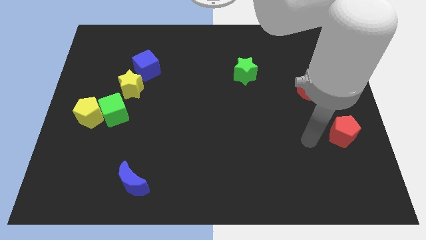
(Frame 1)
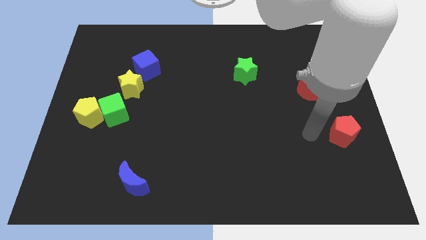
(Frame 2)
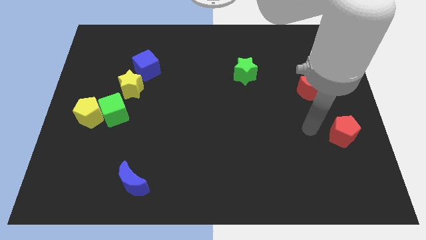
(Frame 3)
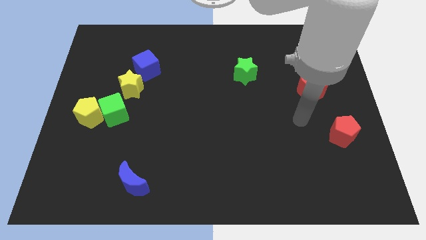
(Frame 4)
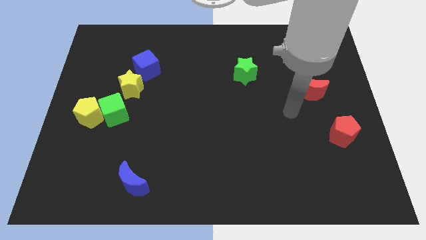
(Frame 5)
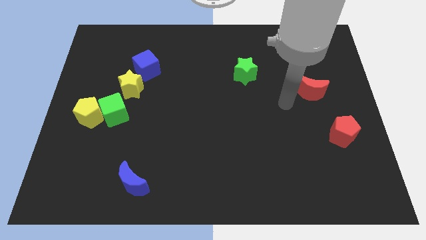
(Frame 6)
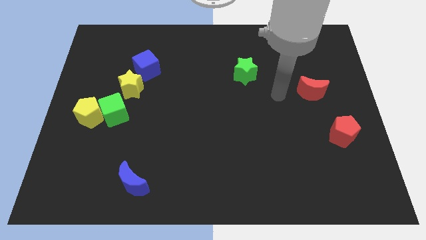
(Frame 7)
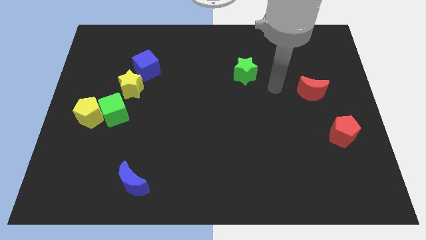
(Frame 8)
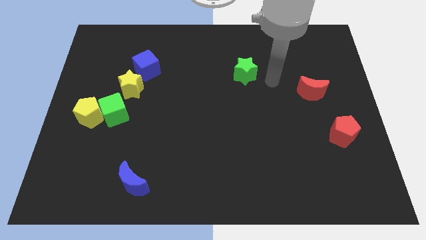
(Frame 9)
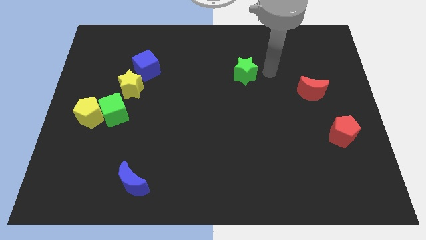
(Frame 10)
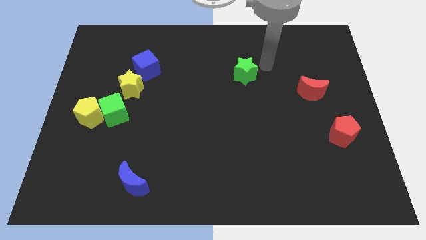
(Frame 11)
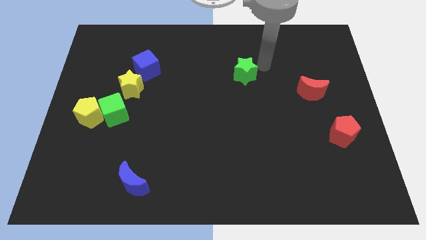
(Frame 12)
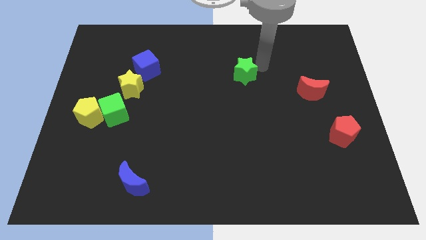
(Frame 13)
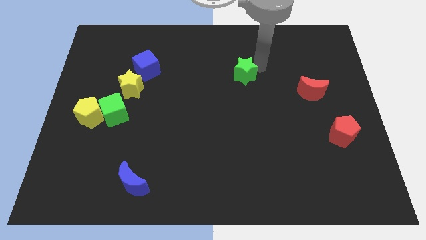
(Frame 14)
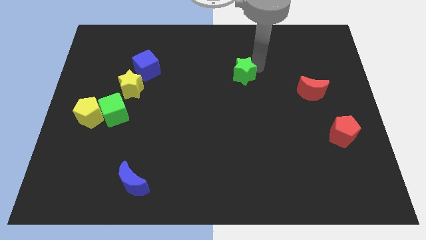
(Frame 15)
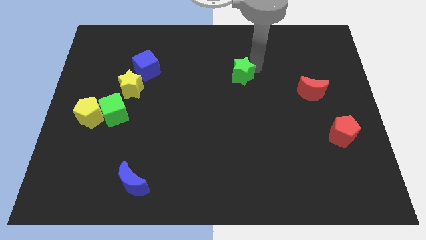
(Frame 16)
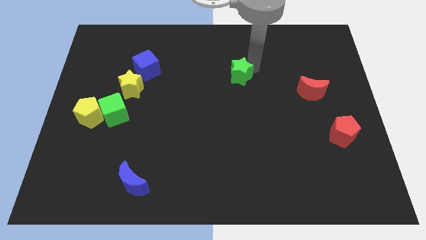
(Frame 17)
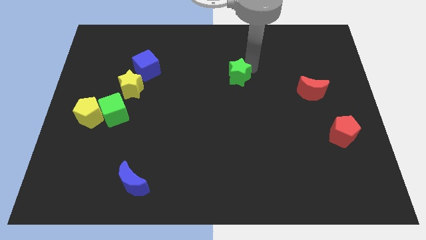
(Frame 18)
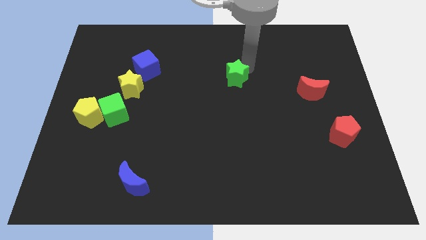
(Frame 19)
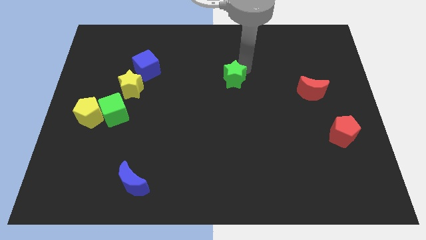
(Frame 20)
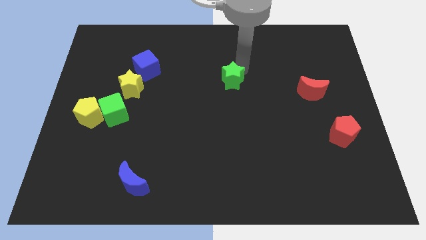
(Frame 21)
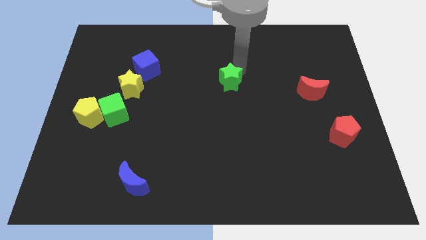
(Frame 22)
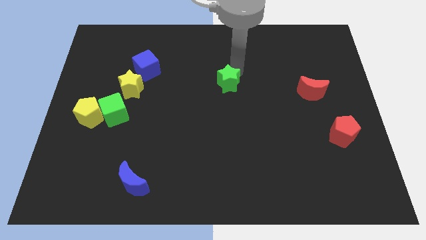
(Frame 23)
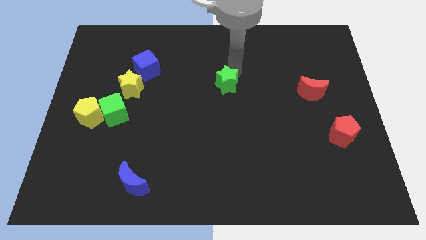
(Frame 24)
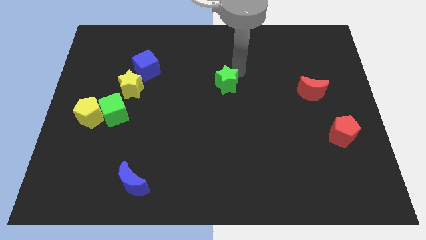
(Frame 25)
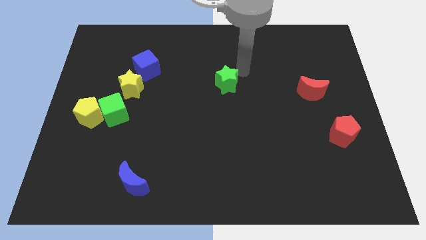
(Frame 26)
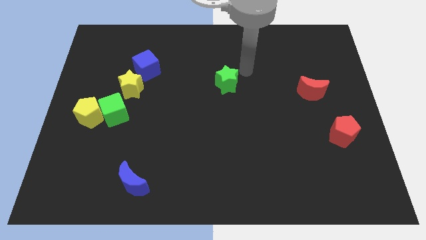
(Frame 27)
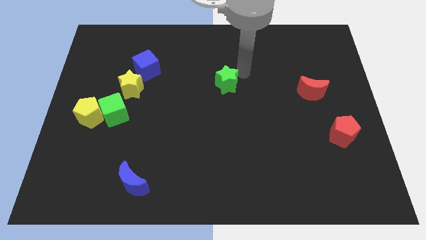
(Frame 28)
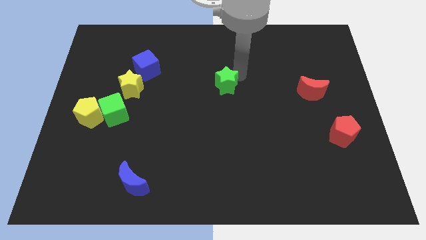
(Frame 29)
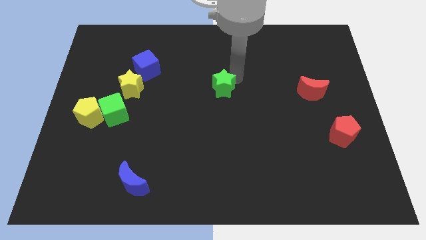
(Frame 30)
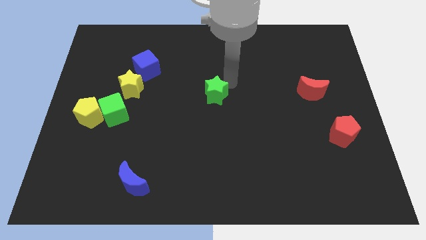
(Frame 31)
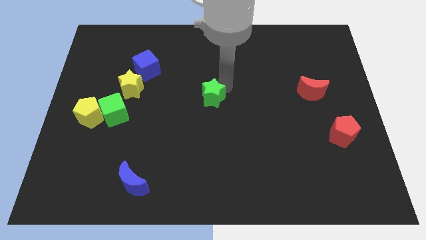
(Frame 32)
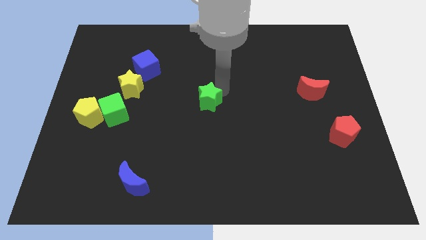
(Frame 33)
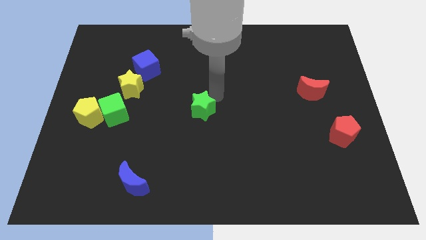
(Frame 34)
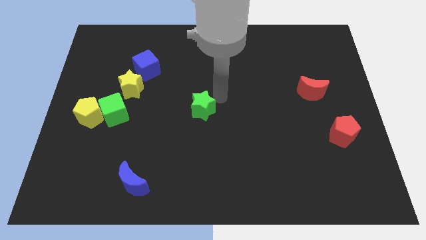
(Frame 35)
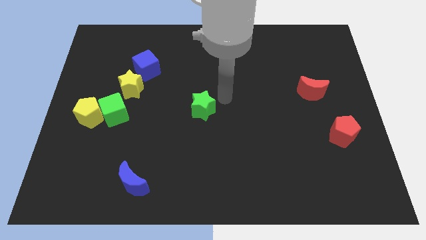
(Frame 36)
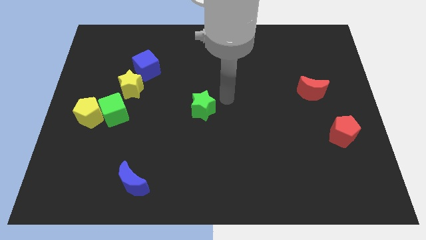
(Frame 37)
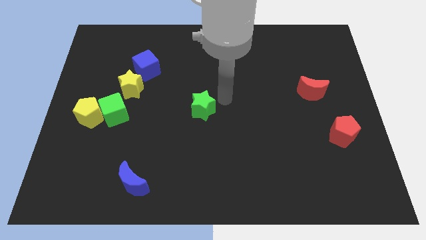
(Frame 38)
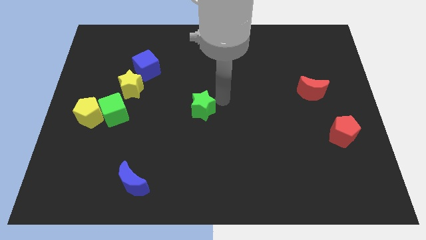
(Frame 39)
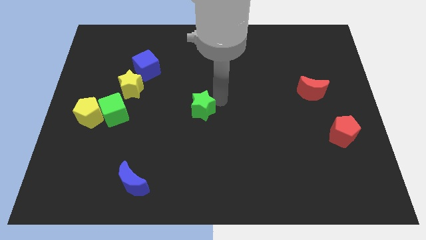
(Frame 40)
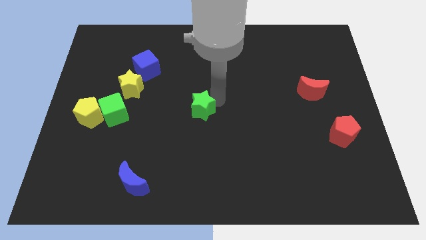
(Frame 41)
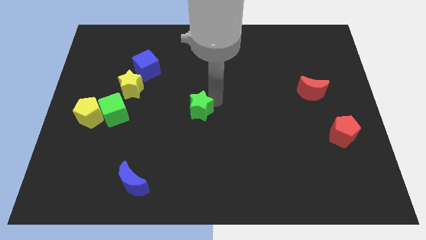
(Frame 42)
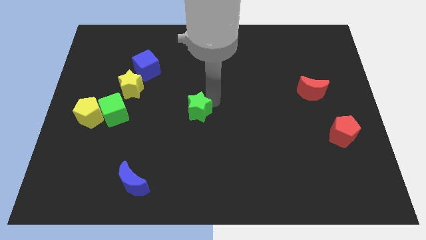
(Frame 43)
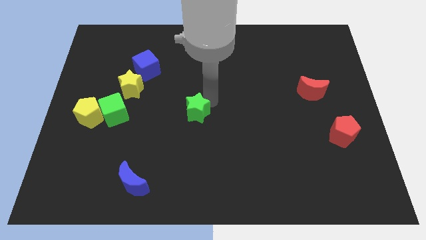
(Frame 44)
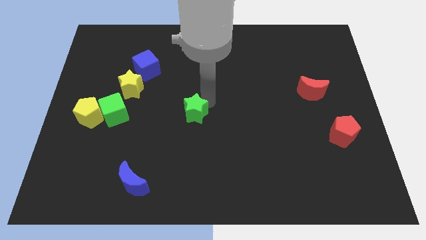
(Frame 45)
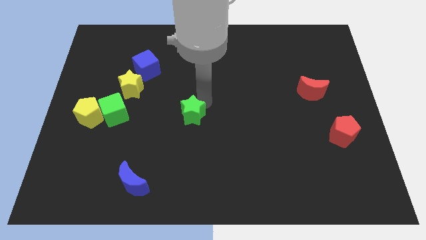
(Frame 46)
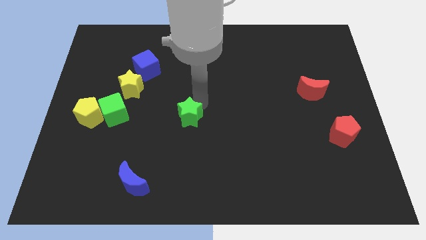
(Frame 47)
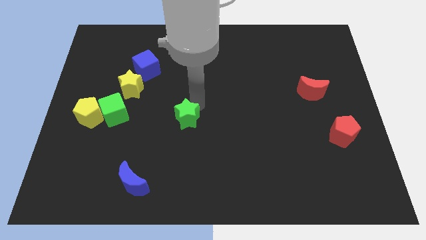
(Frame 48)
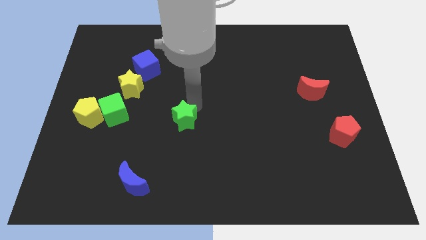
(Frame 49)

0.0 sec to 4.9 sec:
push the green star down and left diagonally

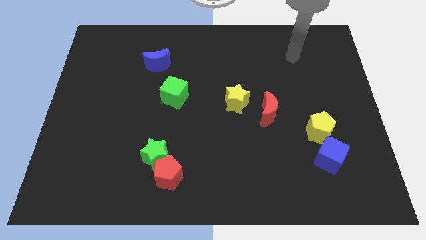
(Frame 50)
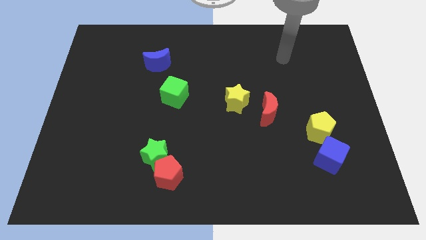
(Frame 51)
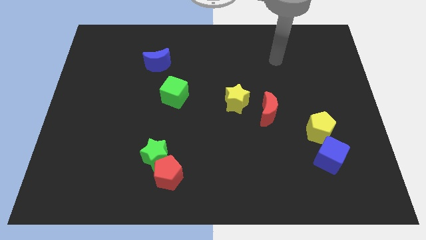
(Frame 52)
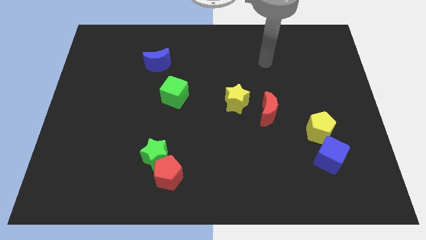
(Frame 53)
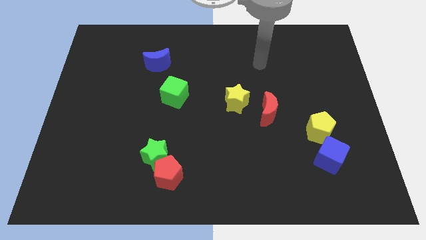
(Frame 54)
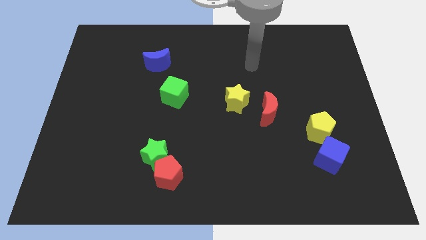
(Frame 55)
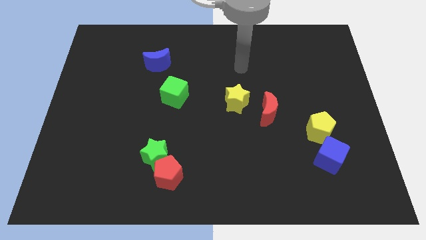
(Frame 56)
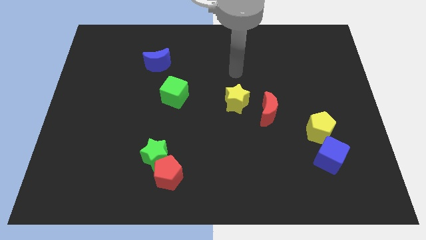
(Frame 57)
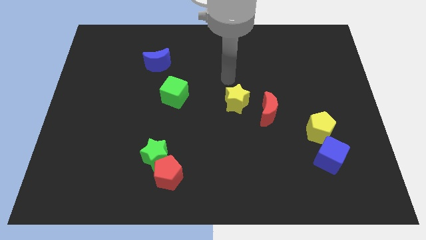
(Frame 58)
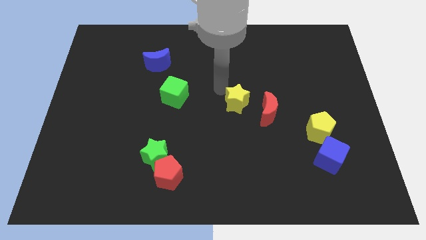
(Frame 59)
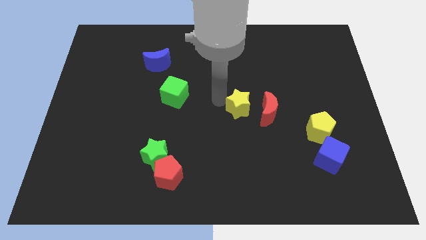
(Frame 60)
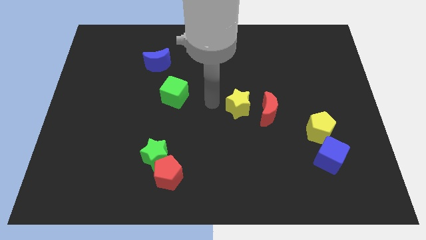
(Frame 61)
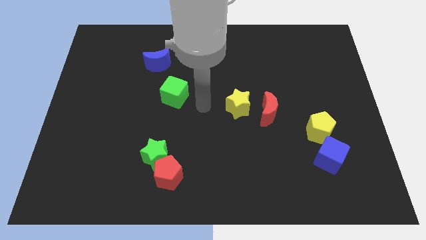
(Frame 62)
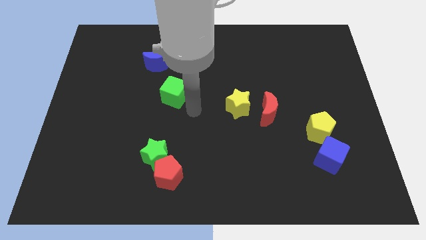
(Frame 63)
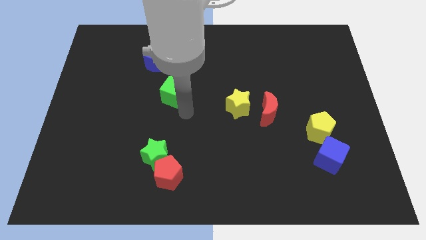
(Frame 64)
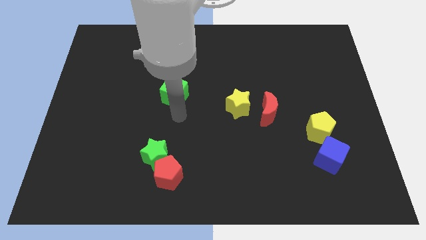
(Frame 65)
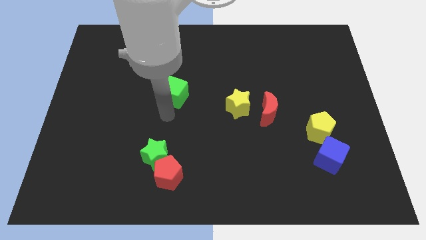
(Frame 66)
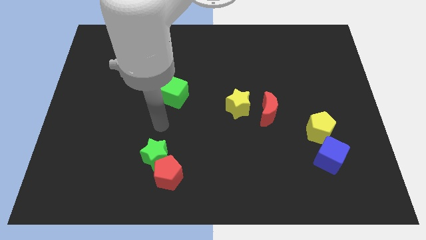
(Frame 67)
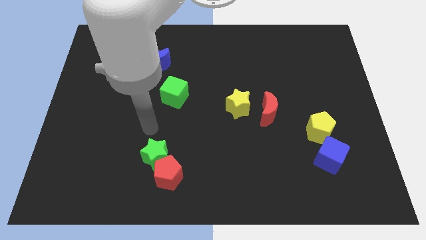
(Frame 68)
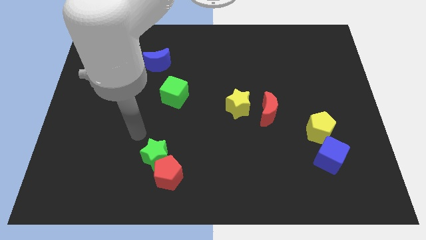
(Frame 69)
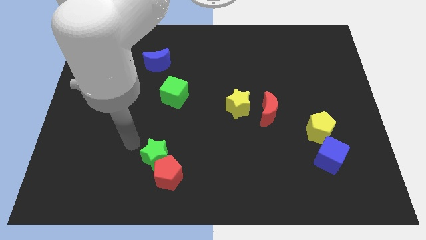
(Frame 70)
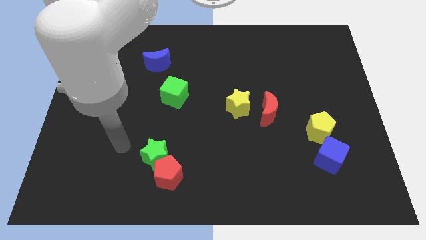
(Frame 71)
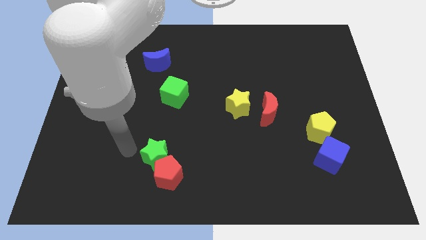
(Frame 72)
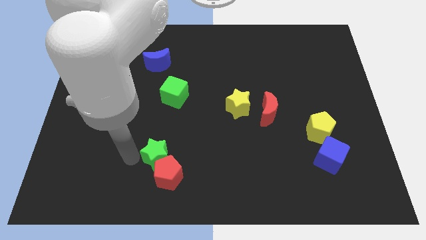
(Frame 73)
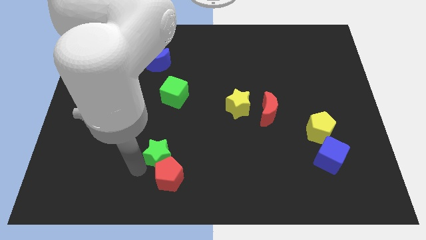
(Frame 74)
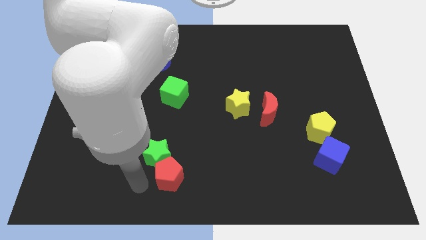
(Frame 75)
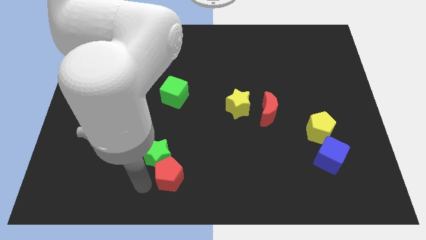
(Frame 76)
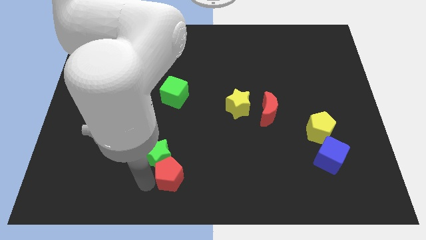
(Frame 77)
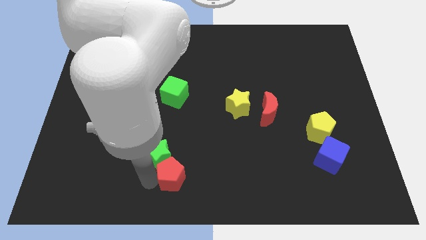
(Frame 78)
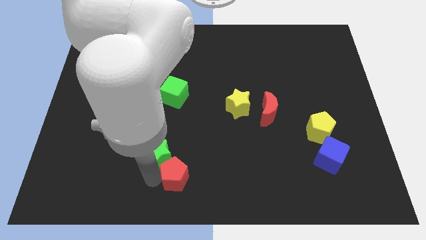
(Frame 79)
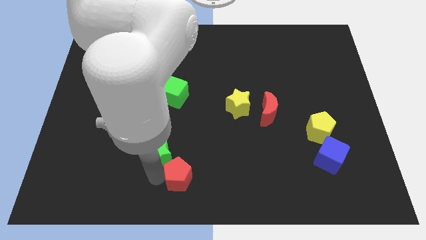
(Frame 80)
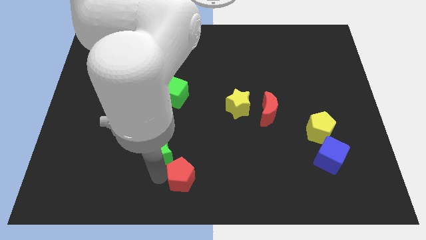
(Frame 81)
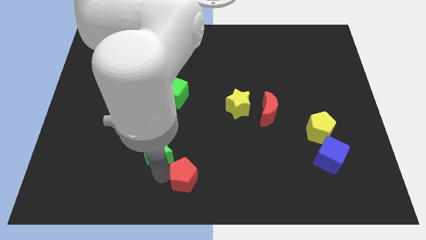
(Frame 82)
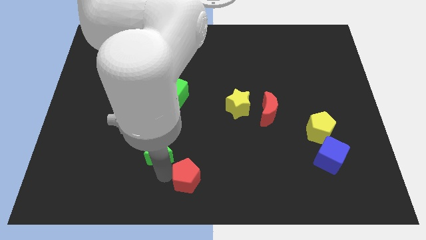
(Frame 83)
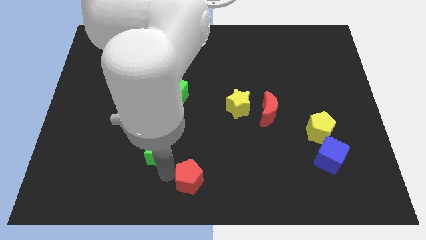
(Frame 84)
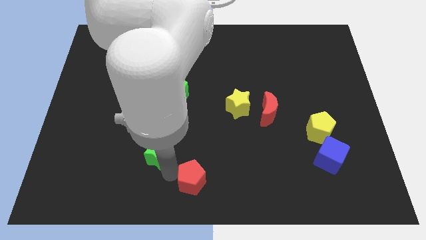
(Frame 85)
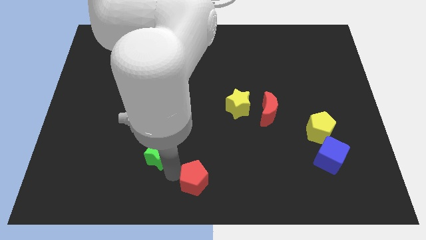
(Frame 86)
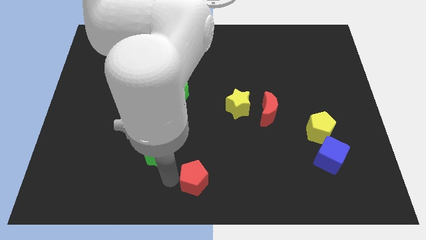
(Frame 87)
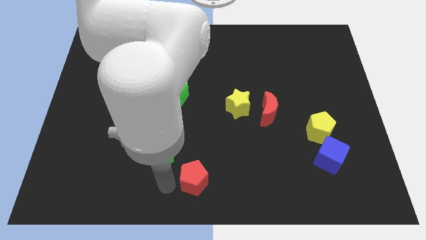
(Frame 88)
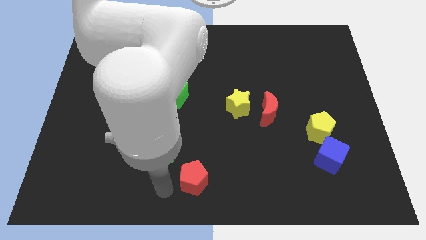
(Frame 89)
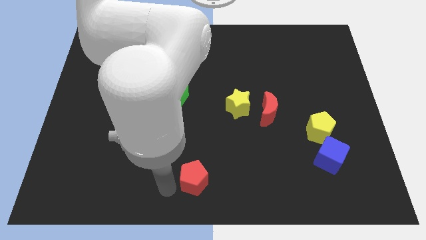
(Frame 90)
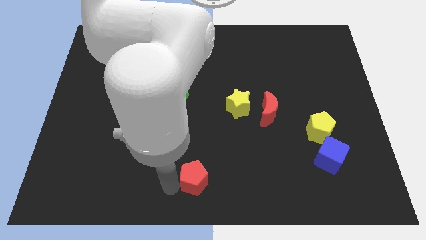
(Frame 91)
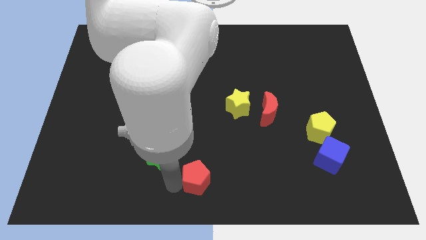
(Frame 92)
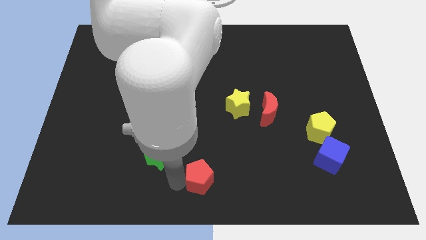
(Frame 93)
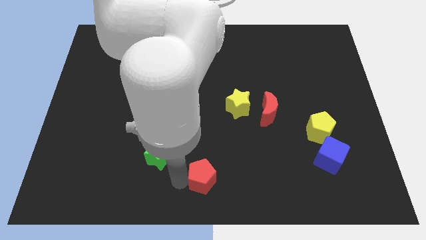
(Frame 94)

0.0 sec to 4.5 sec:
move the red pentagon to the right somewhat
